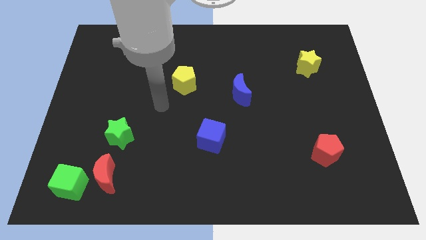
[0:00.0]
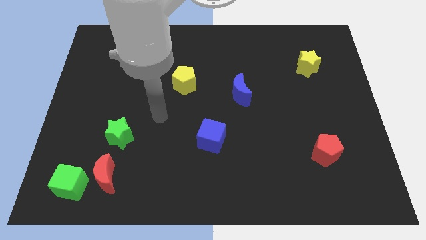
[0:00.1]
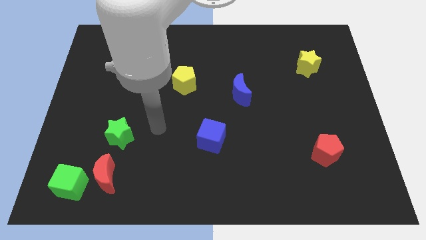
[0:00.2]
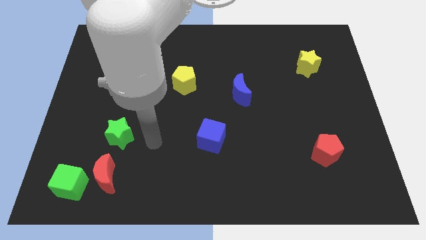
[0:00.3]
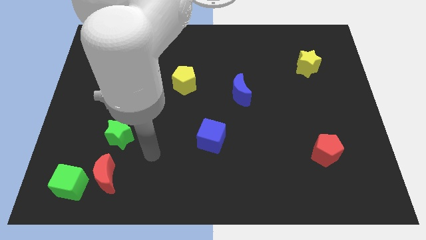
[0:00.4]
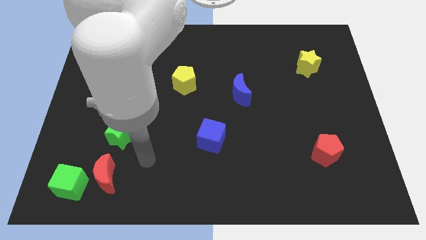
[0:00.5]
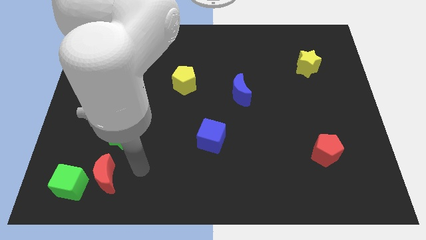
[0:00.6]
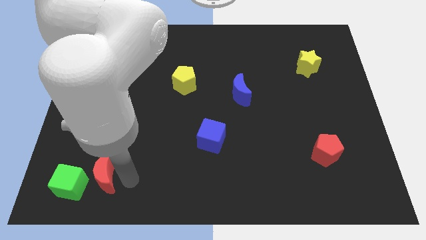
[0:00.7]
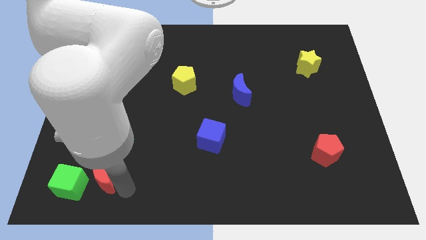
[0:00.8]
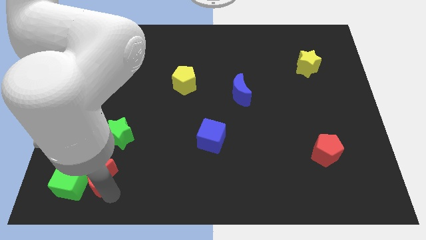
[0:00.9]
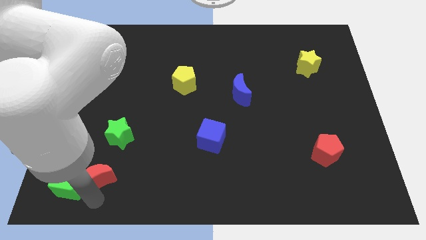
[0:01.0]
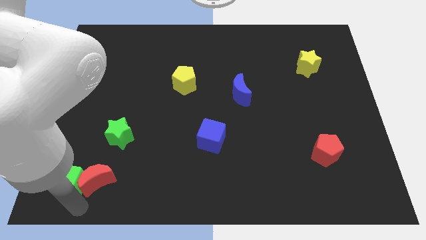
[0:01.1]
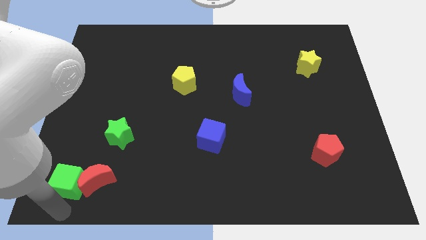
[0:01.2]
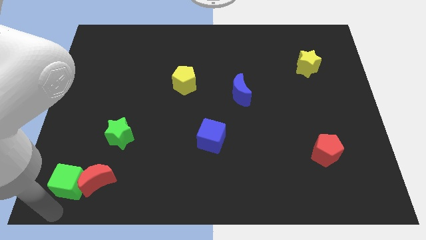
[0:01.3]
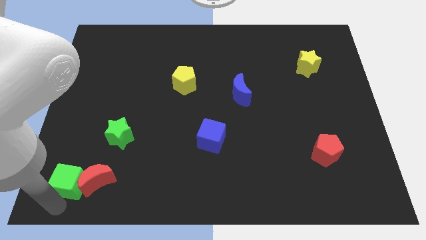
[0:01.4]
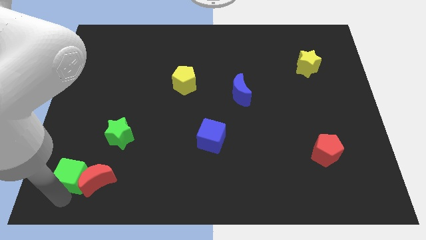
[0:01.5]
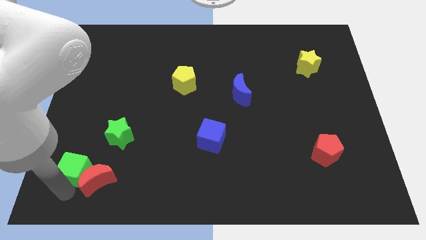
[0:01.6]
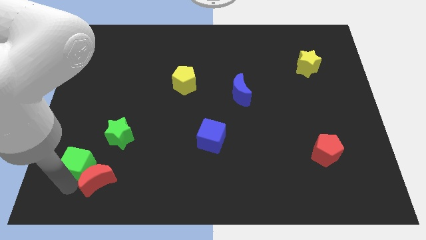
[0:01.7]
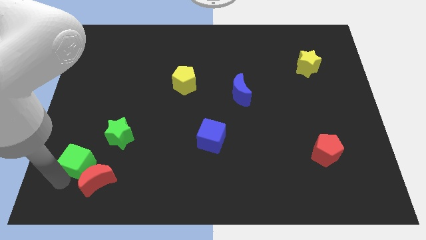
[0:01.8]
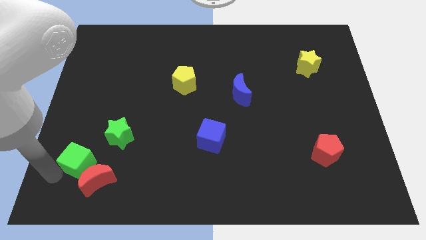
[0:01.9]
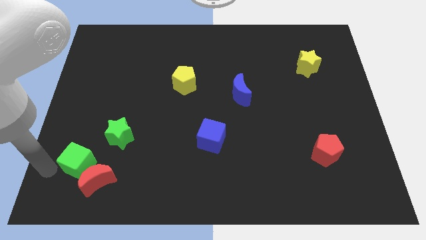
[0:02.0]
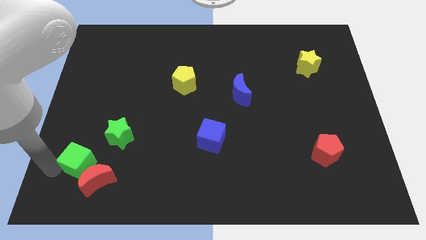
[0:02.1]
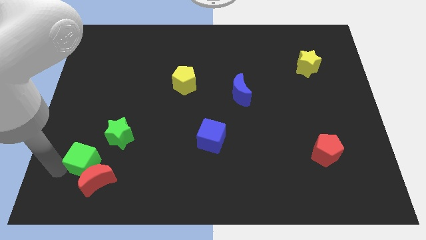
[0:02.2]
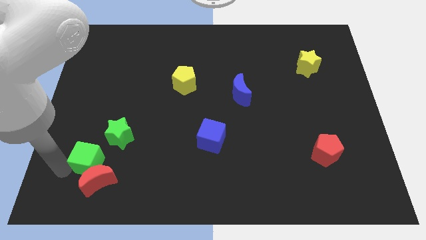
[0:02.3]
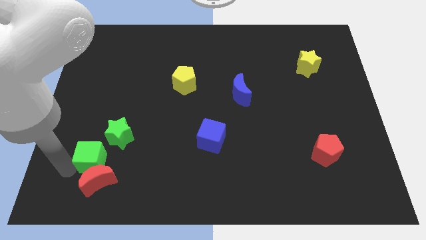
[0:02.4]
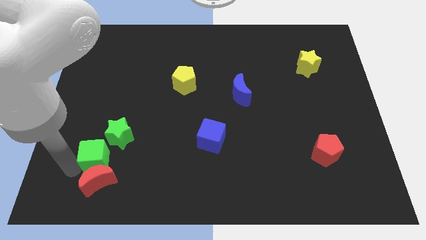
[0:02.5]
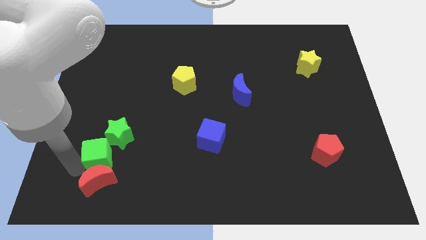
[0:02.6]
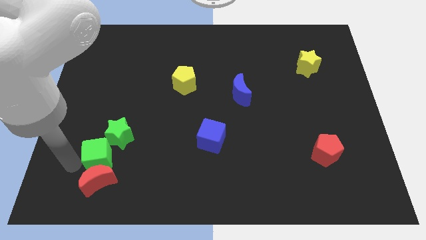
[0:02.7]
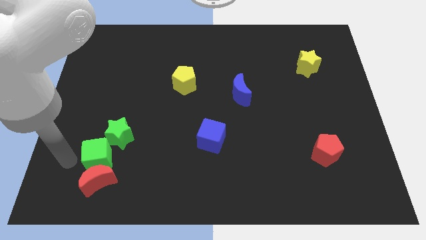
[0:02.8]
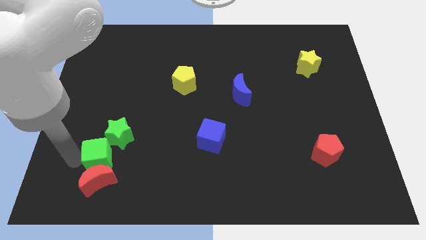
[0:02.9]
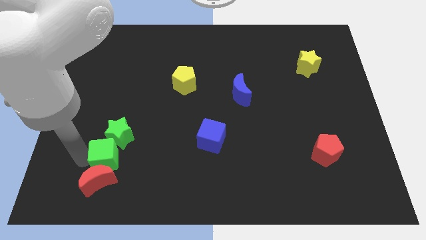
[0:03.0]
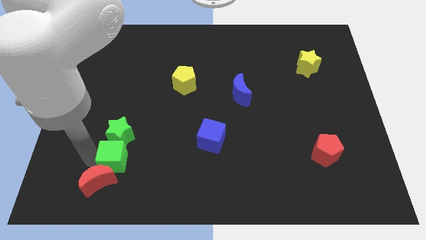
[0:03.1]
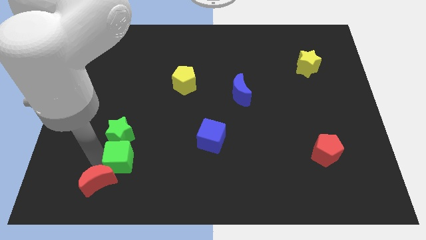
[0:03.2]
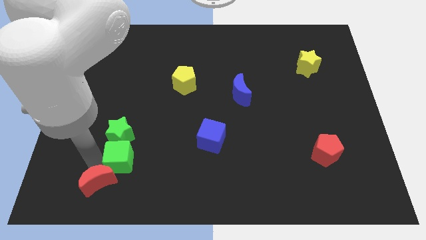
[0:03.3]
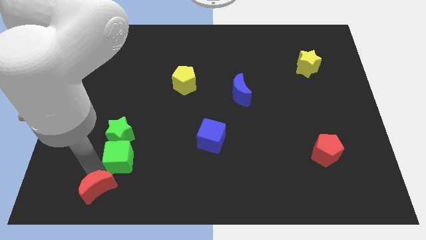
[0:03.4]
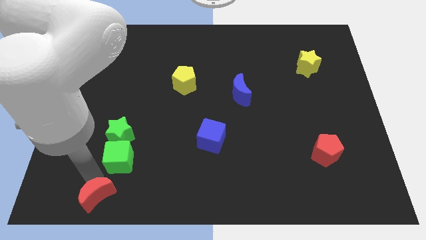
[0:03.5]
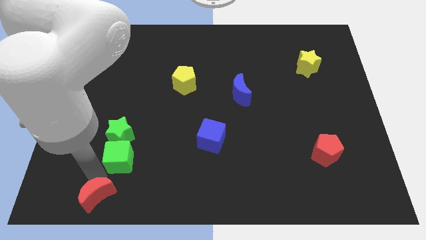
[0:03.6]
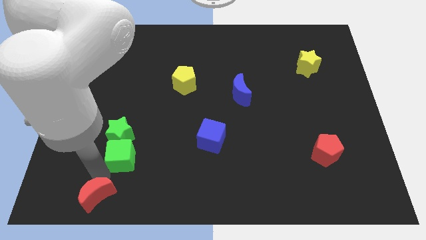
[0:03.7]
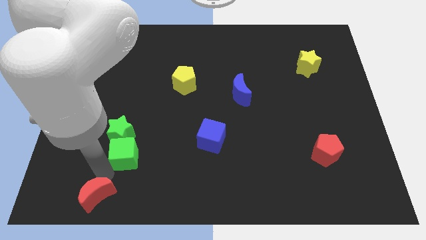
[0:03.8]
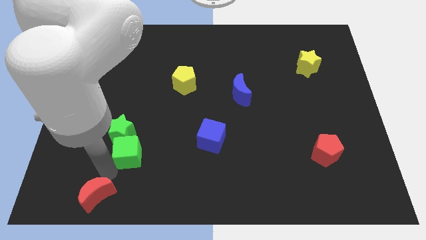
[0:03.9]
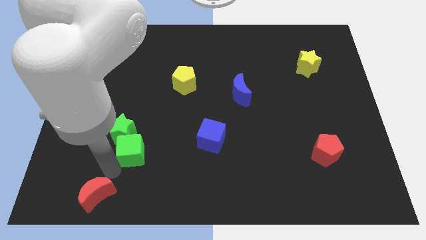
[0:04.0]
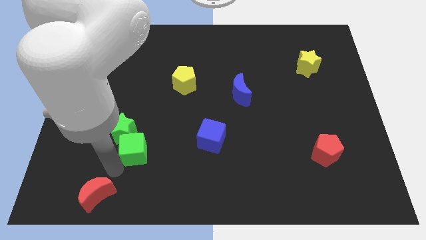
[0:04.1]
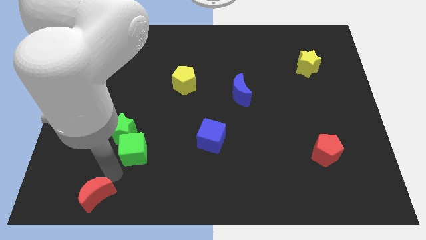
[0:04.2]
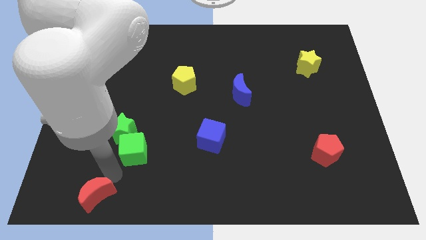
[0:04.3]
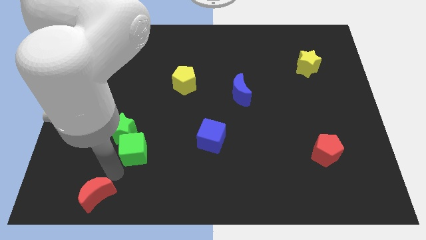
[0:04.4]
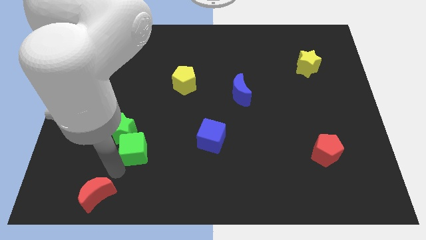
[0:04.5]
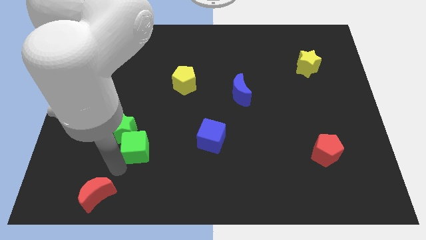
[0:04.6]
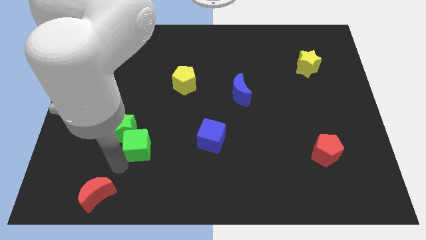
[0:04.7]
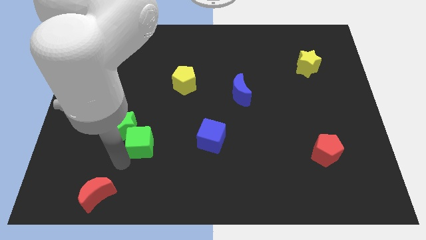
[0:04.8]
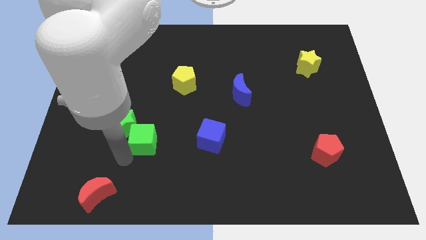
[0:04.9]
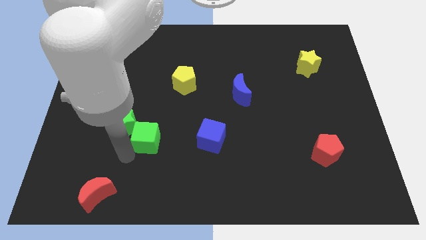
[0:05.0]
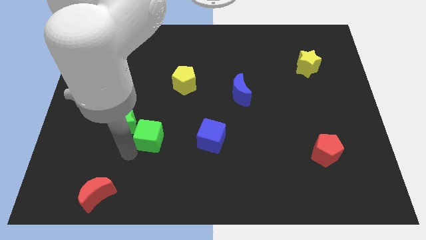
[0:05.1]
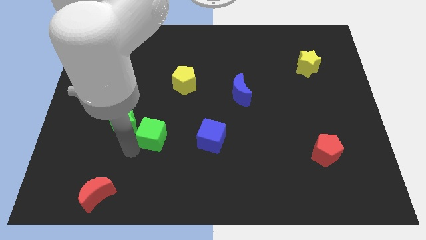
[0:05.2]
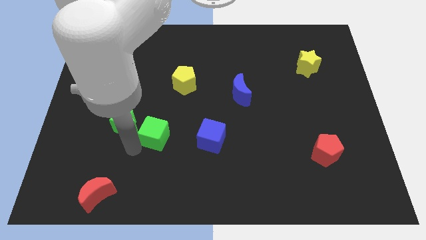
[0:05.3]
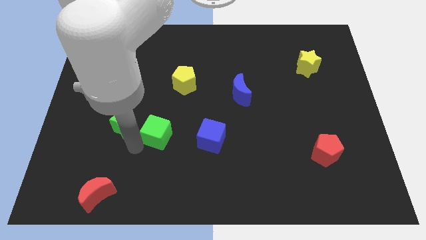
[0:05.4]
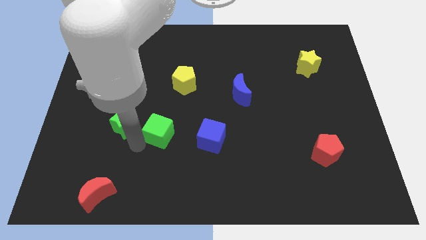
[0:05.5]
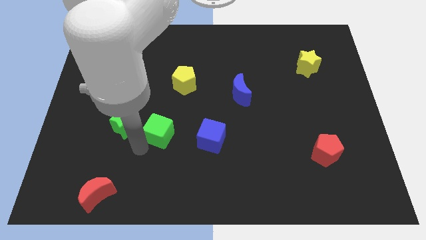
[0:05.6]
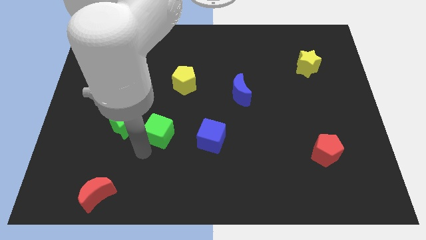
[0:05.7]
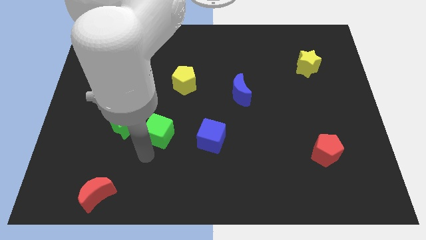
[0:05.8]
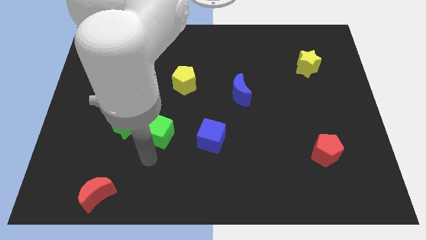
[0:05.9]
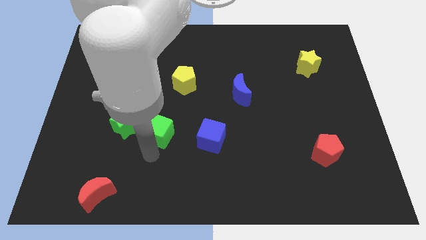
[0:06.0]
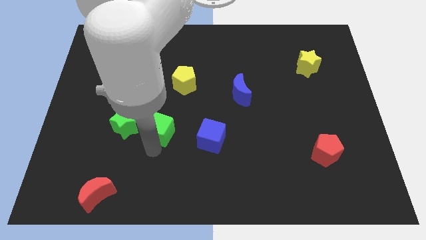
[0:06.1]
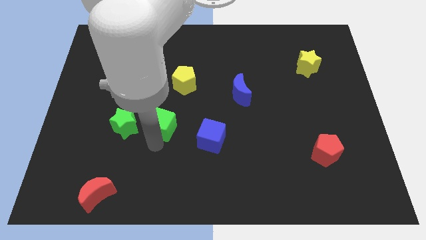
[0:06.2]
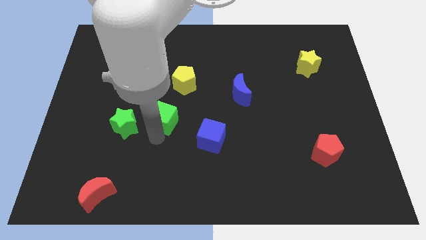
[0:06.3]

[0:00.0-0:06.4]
put the green cube to the center
